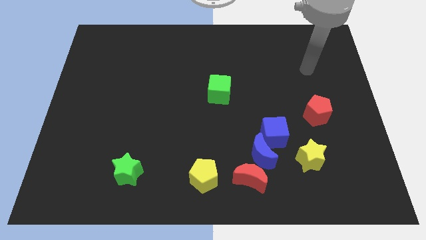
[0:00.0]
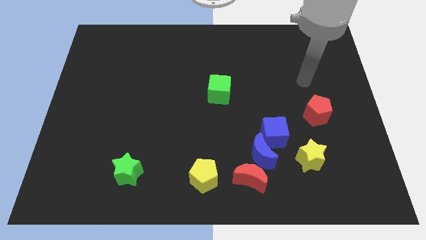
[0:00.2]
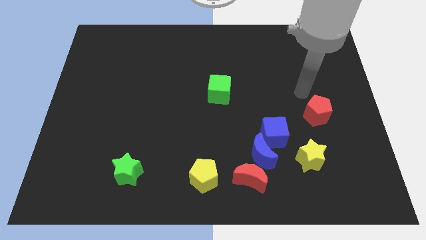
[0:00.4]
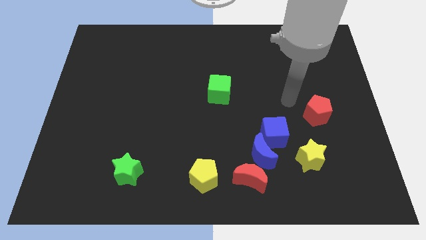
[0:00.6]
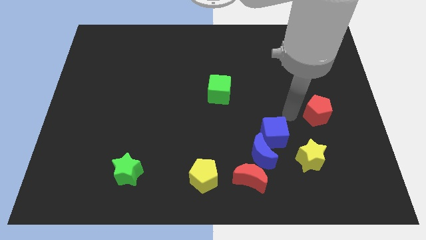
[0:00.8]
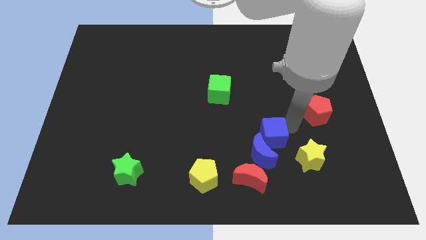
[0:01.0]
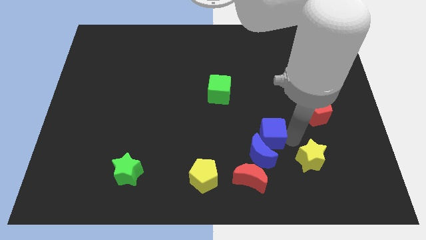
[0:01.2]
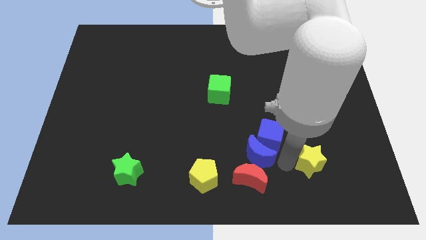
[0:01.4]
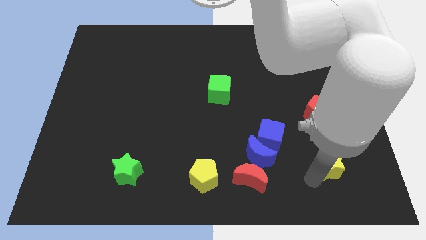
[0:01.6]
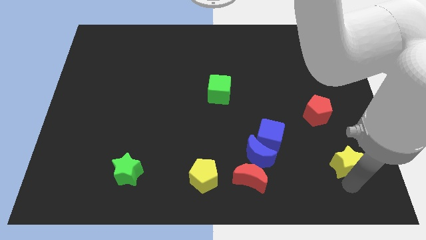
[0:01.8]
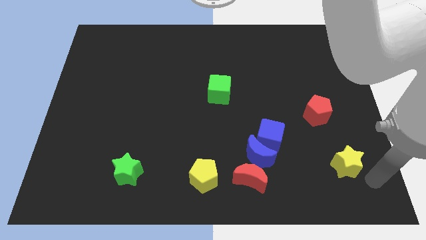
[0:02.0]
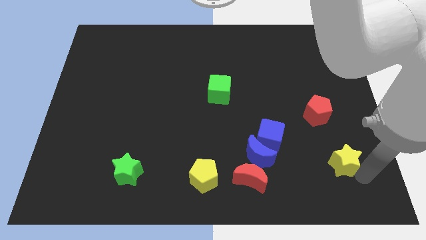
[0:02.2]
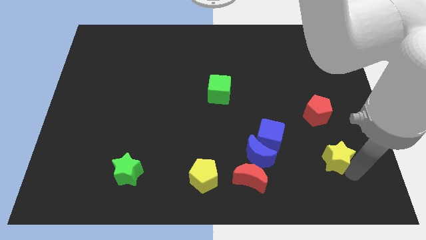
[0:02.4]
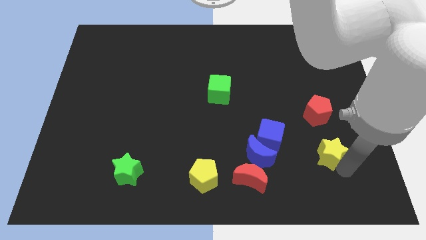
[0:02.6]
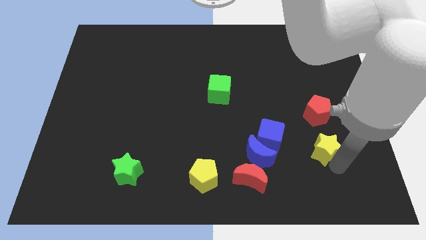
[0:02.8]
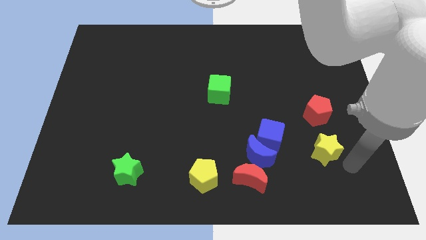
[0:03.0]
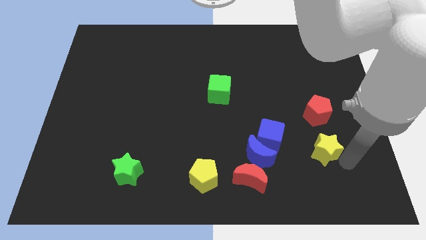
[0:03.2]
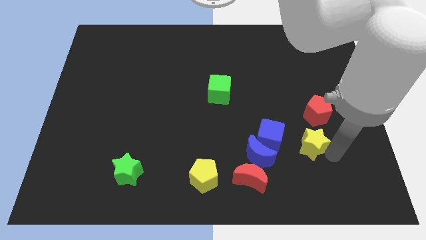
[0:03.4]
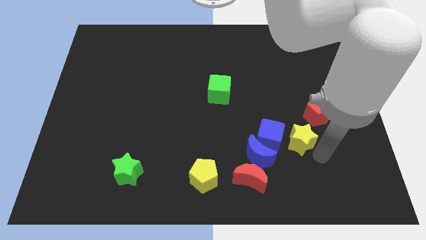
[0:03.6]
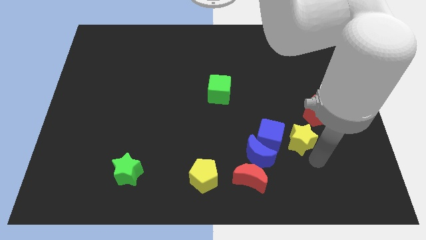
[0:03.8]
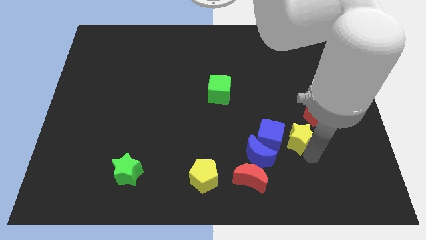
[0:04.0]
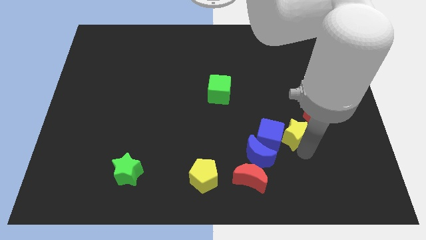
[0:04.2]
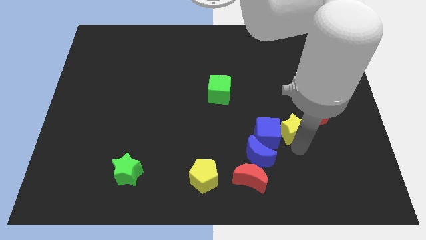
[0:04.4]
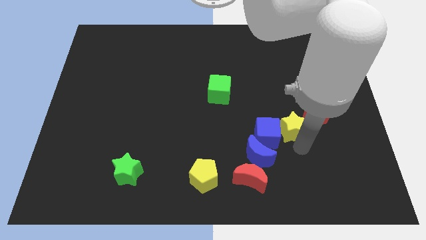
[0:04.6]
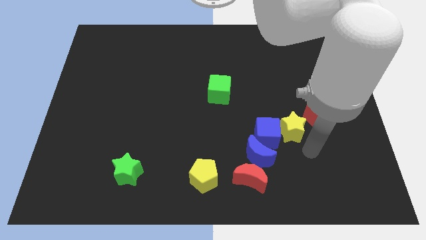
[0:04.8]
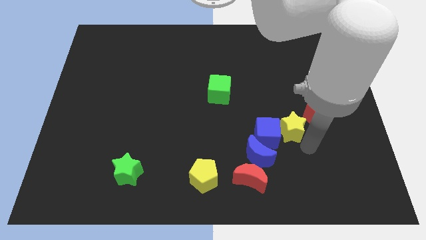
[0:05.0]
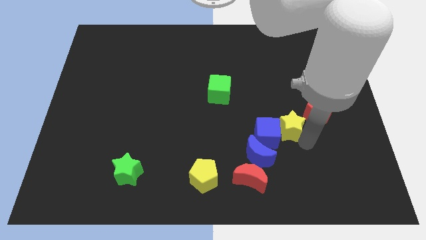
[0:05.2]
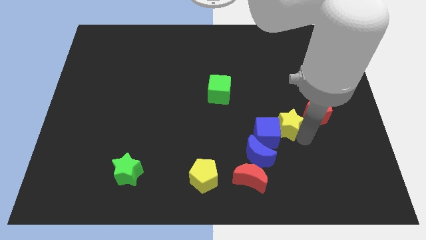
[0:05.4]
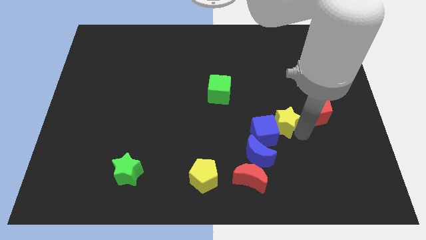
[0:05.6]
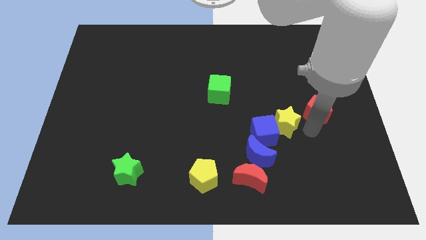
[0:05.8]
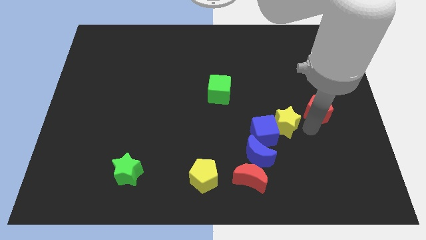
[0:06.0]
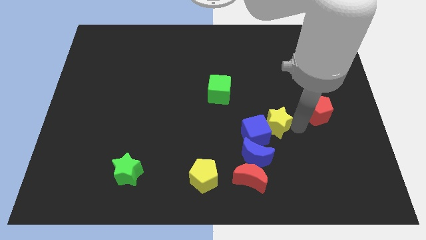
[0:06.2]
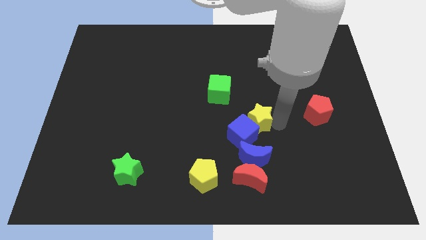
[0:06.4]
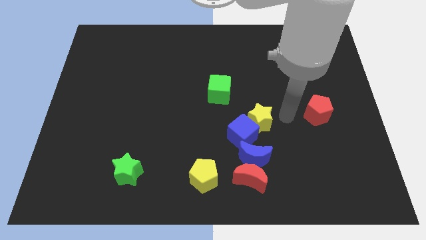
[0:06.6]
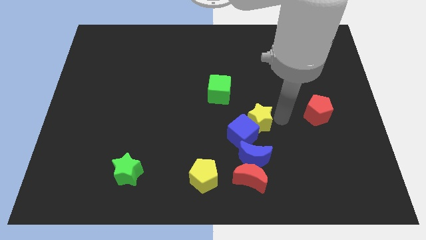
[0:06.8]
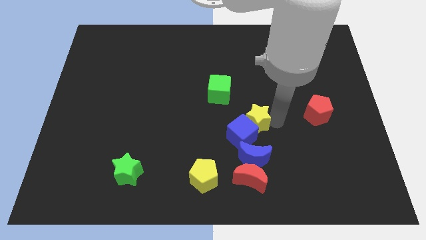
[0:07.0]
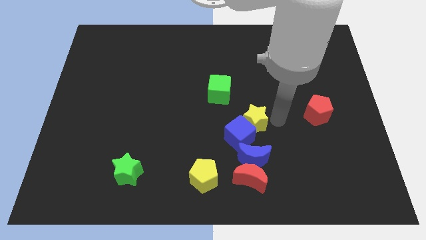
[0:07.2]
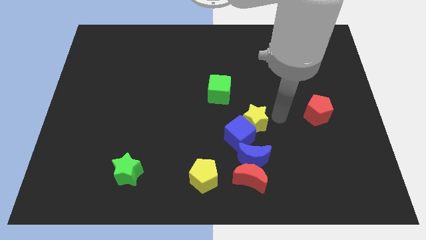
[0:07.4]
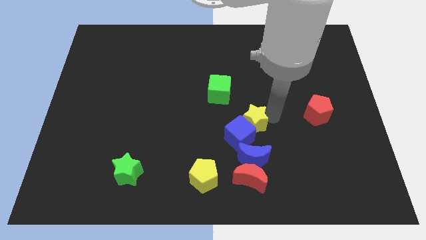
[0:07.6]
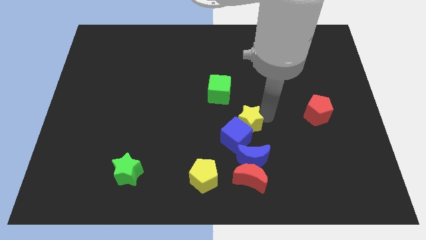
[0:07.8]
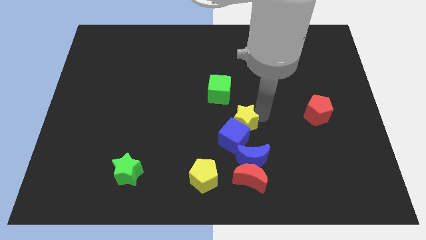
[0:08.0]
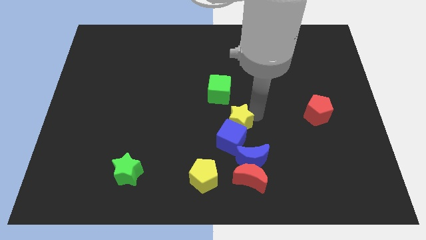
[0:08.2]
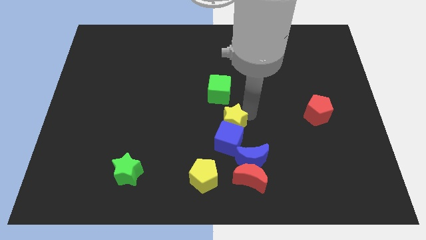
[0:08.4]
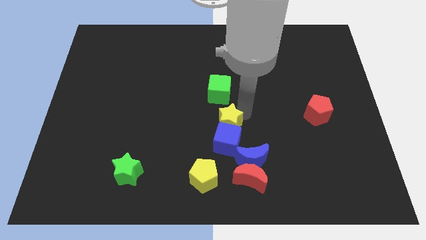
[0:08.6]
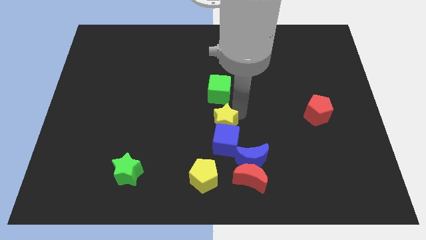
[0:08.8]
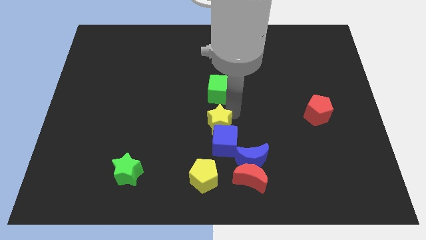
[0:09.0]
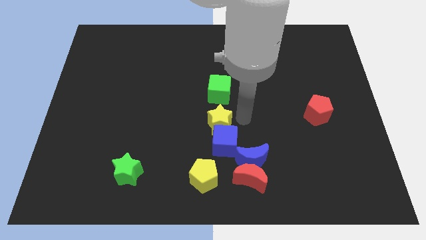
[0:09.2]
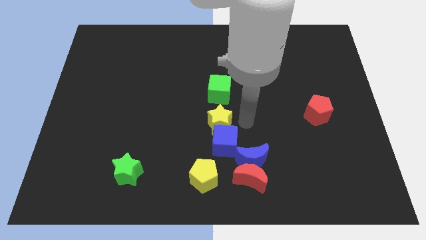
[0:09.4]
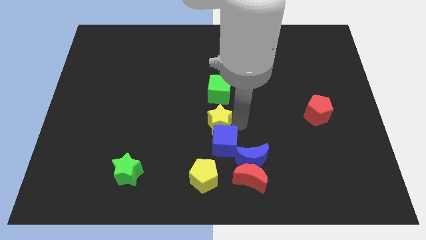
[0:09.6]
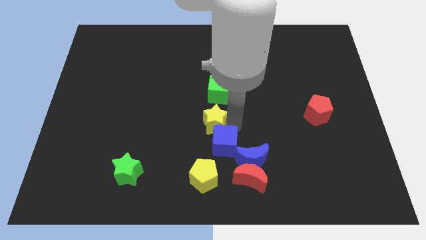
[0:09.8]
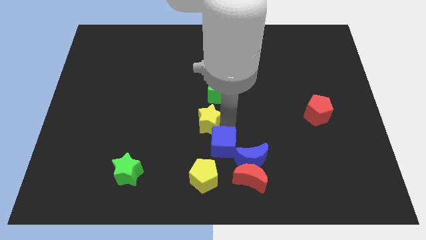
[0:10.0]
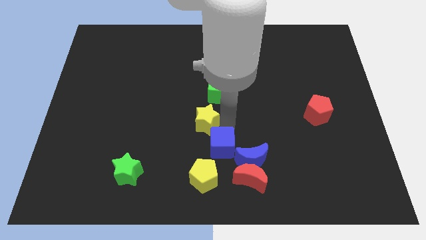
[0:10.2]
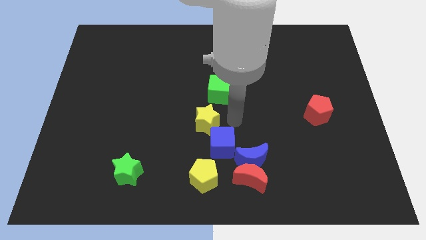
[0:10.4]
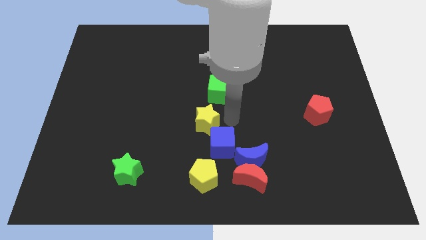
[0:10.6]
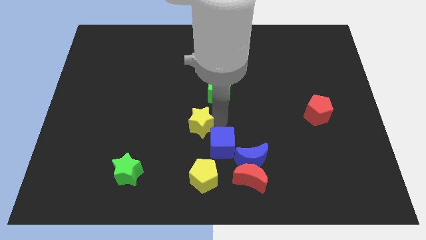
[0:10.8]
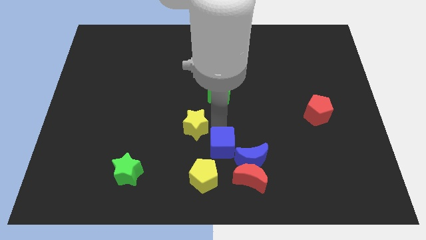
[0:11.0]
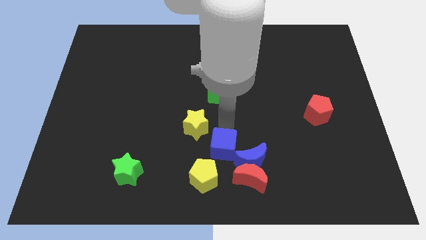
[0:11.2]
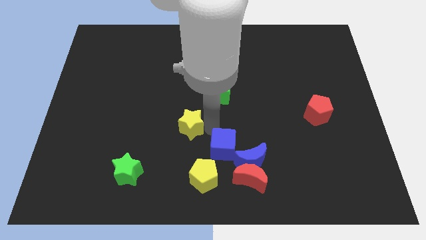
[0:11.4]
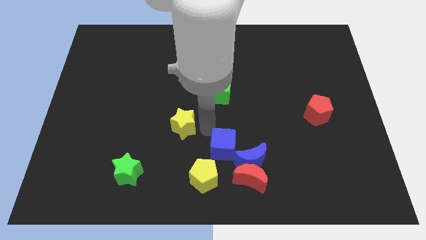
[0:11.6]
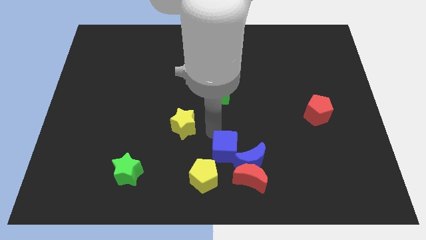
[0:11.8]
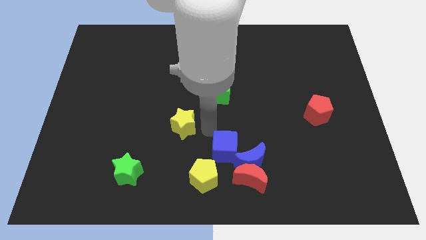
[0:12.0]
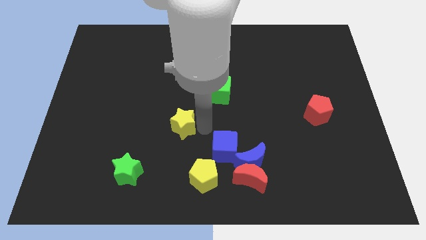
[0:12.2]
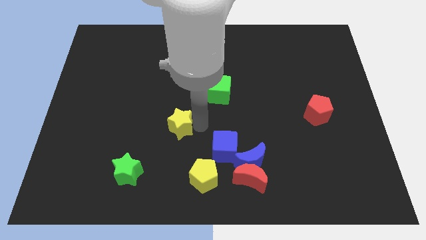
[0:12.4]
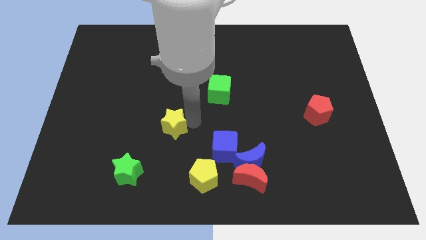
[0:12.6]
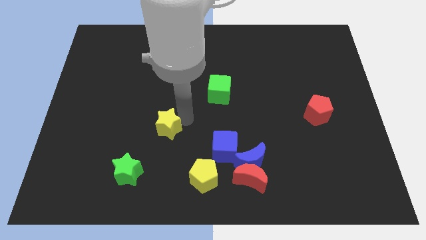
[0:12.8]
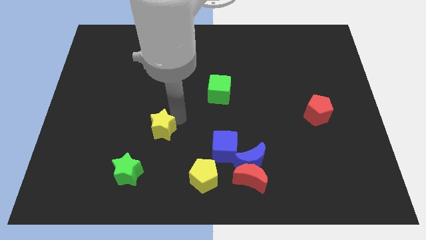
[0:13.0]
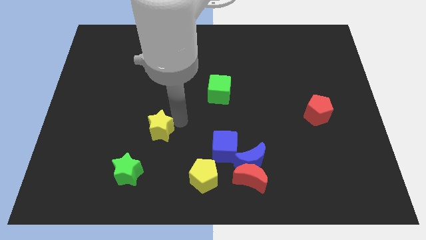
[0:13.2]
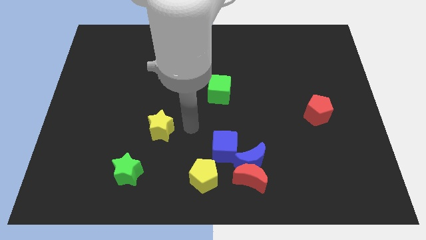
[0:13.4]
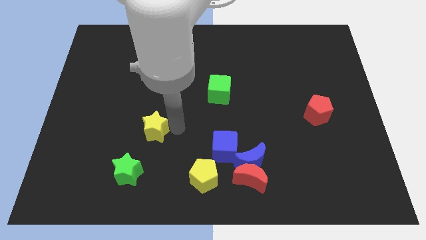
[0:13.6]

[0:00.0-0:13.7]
slide the yellow star above the green star
